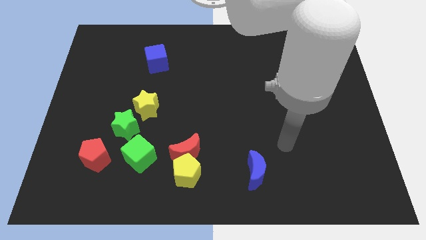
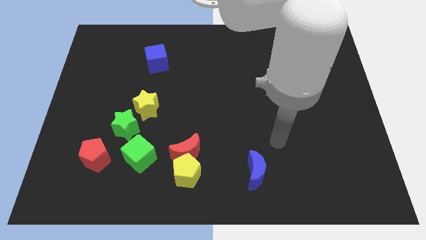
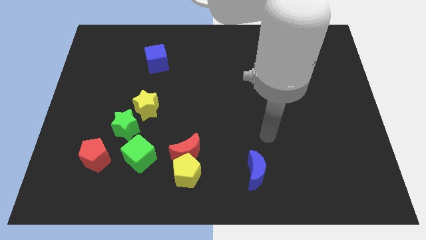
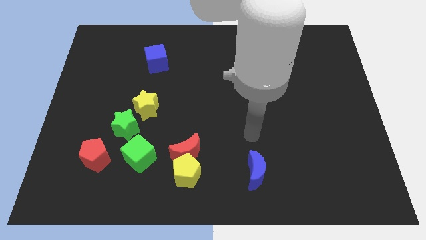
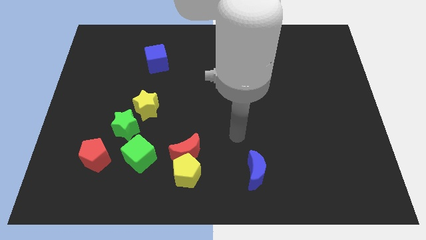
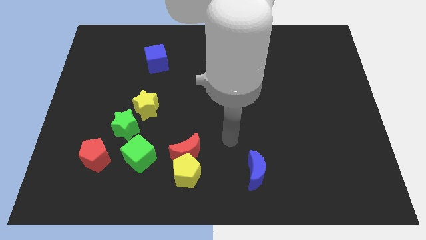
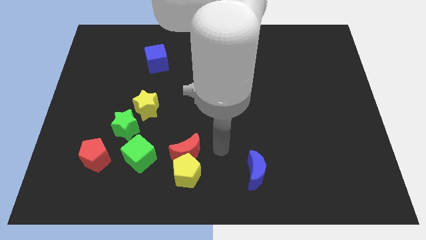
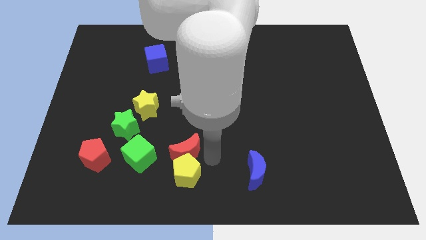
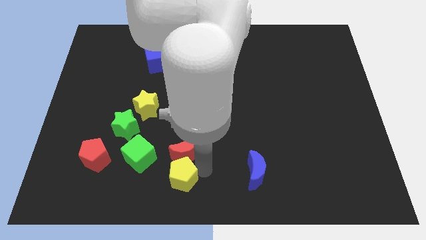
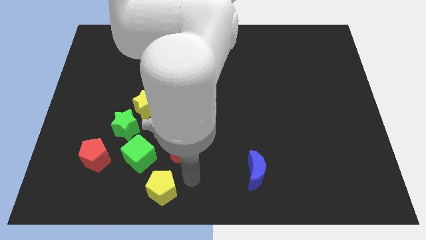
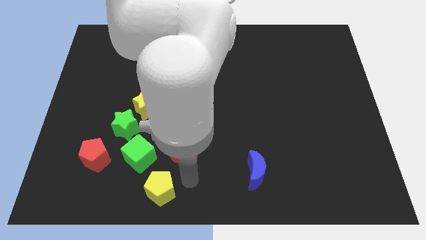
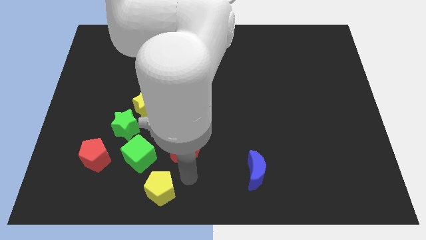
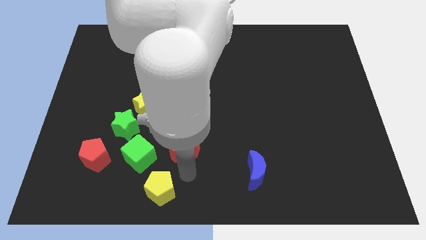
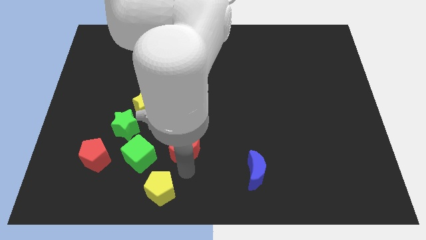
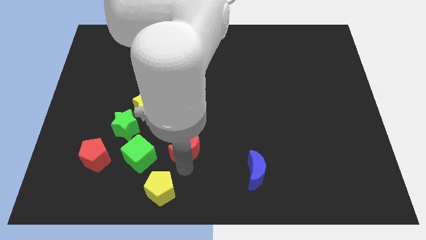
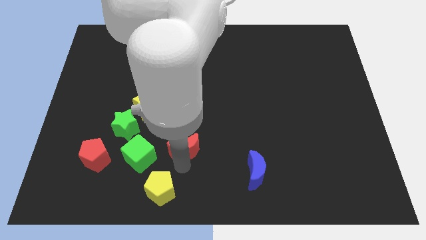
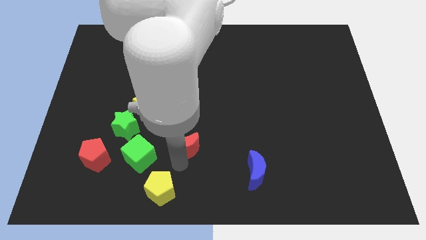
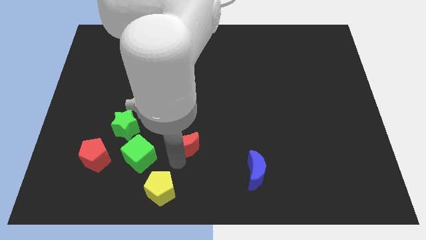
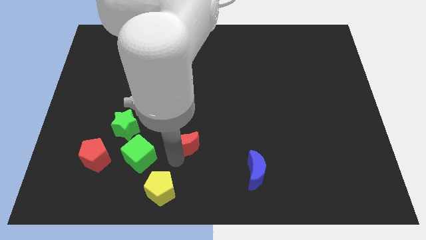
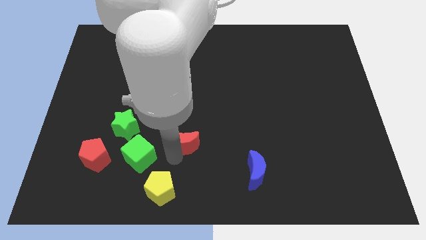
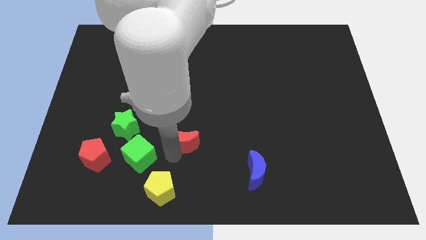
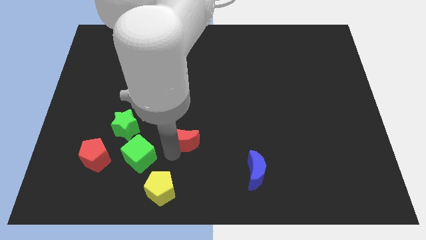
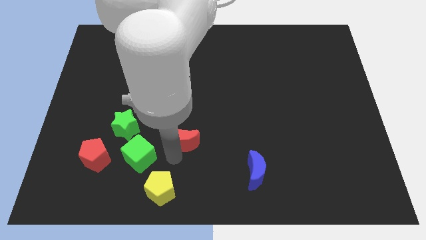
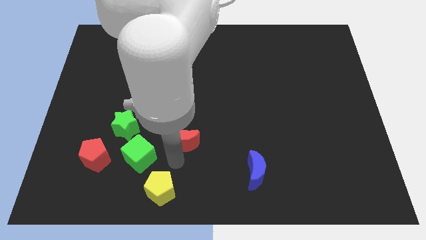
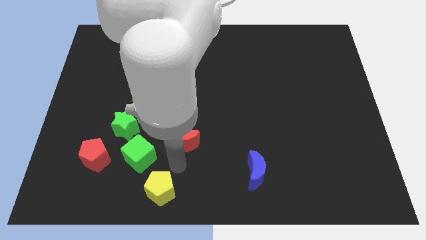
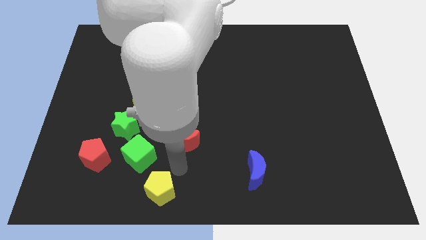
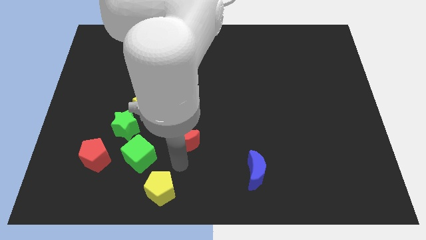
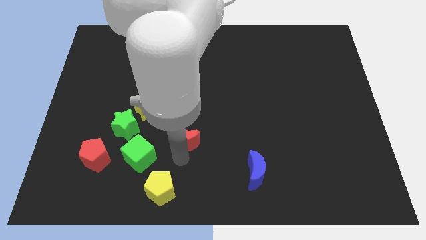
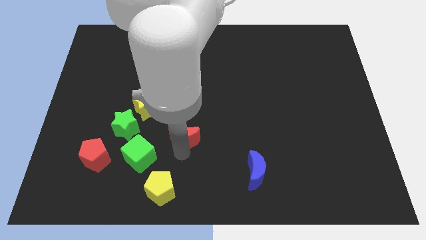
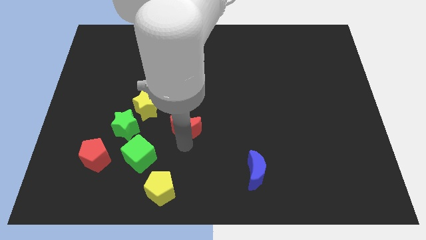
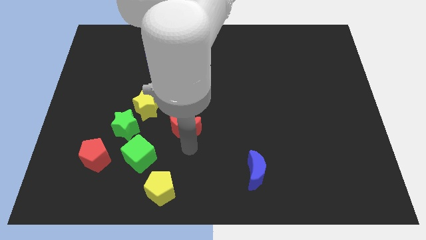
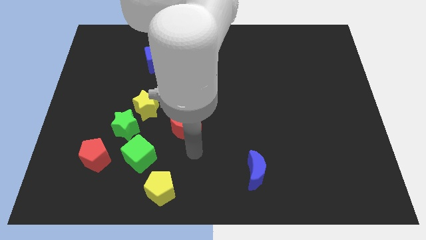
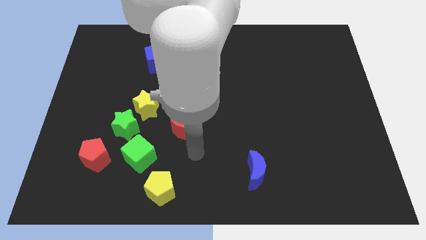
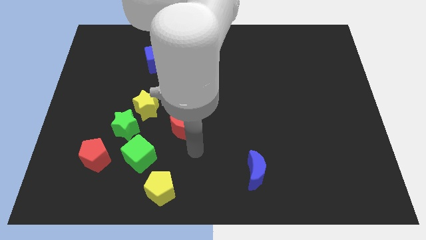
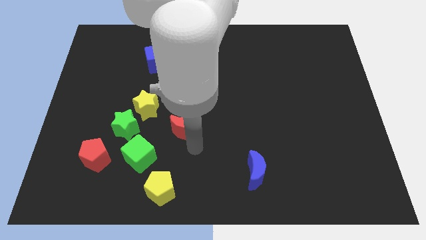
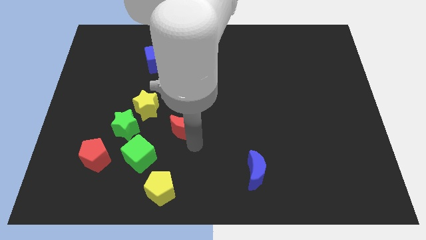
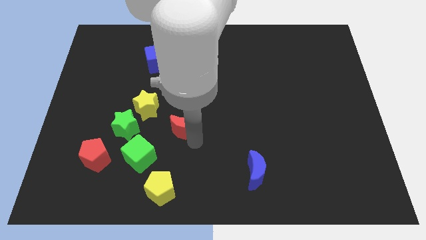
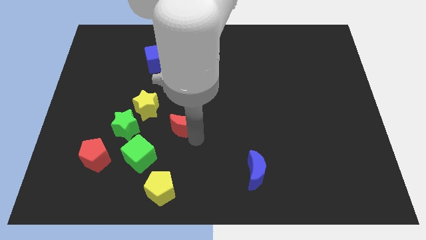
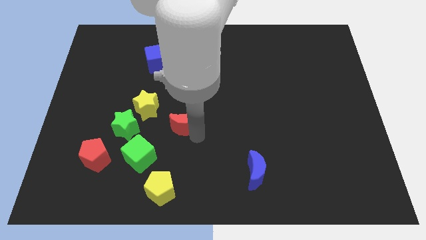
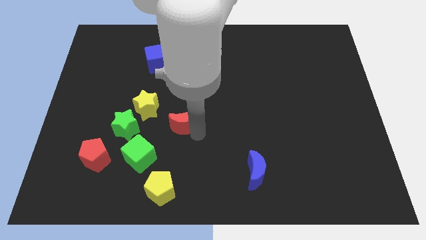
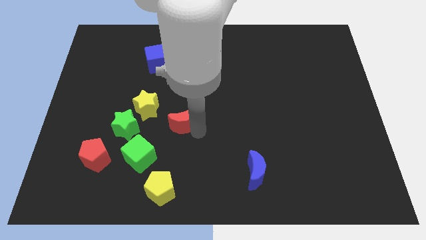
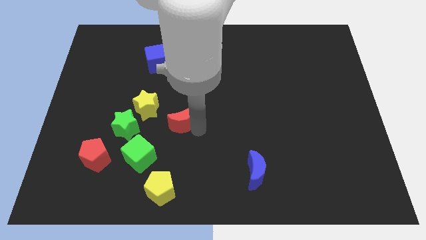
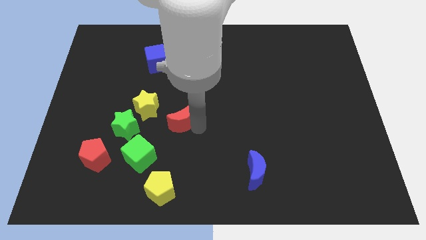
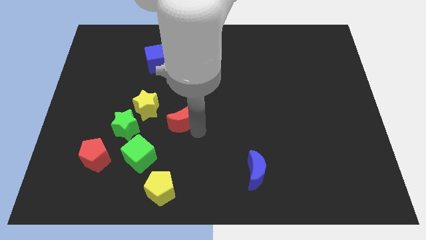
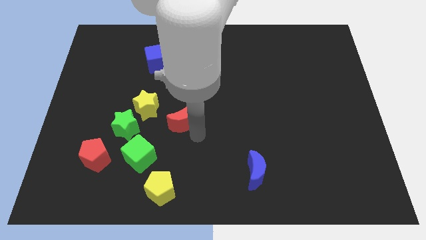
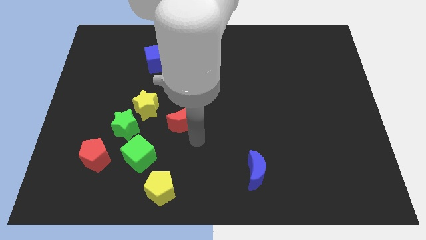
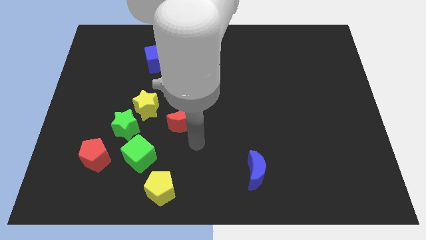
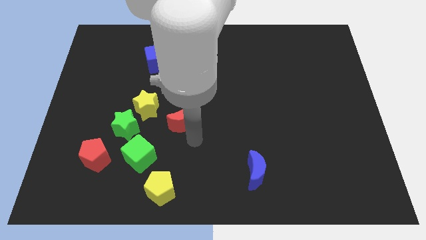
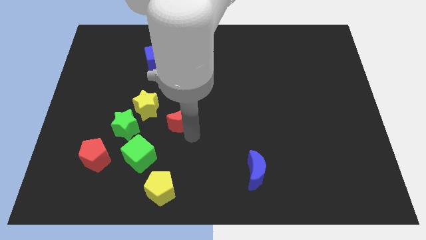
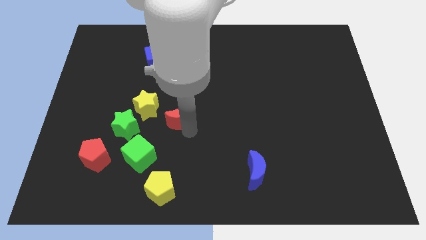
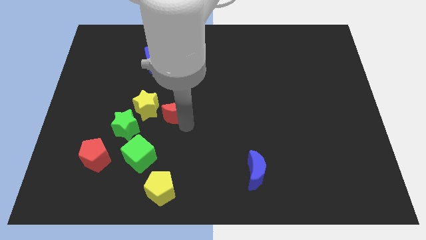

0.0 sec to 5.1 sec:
slightly slide the red moon diagonally up and to the left

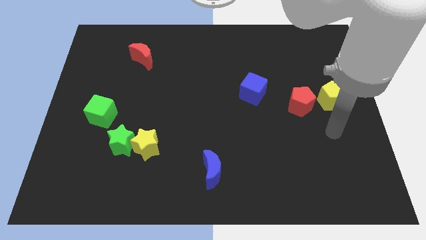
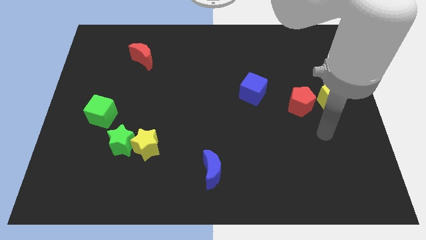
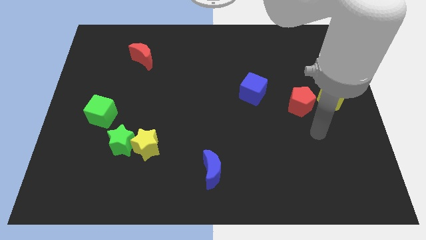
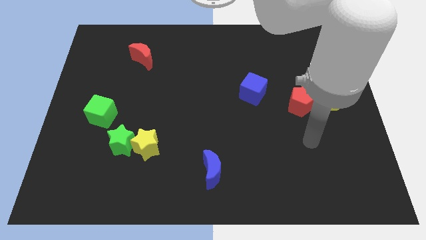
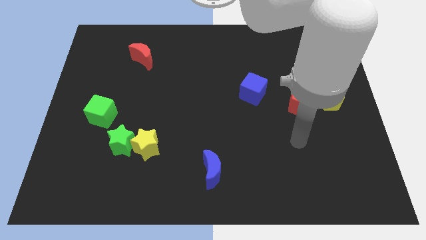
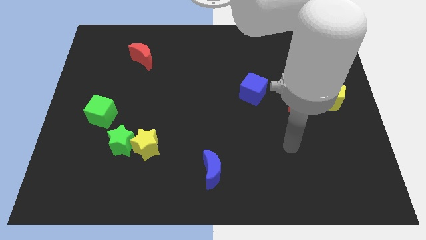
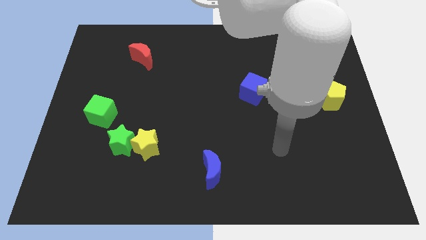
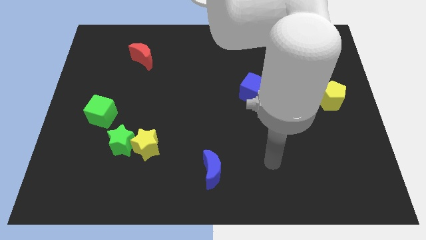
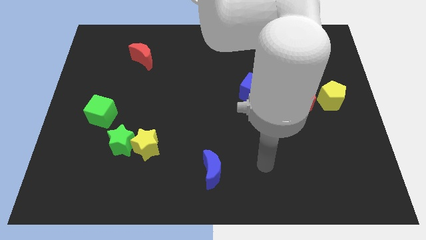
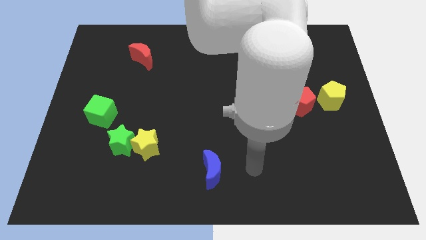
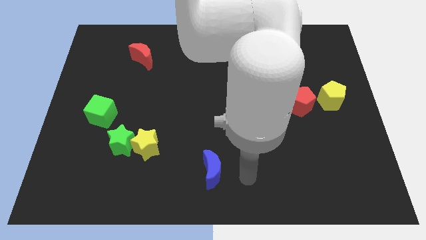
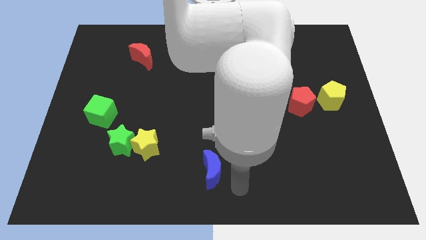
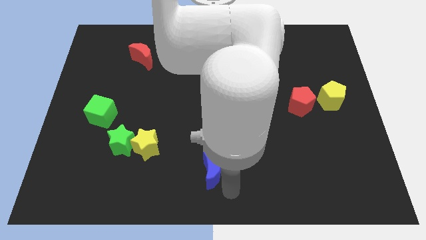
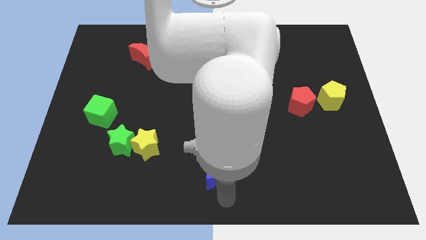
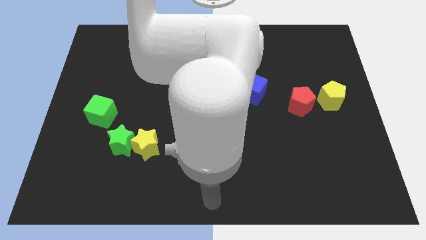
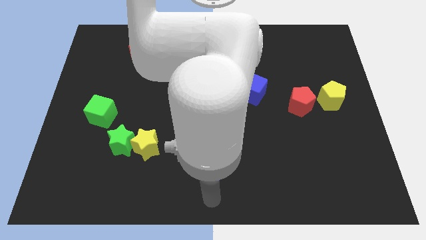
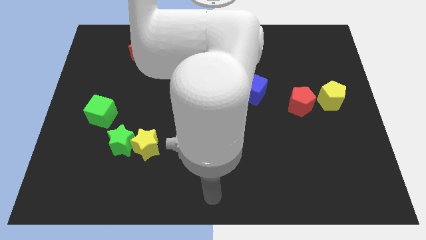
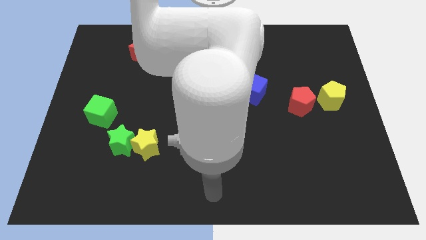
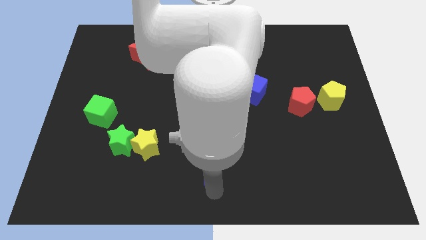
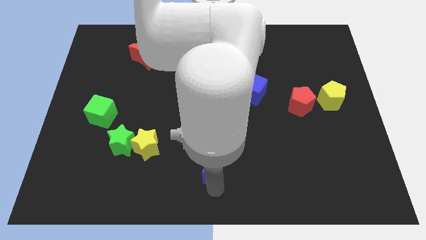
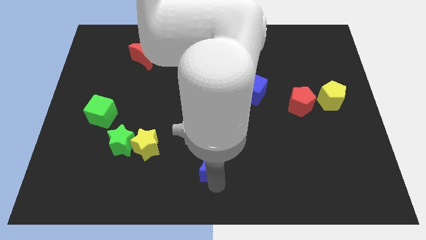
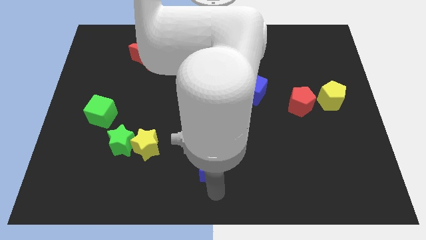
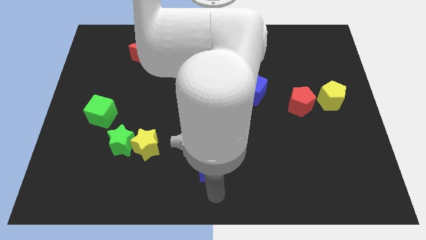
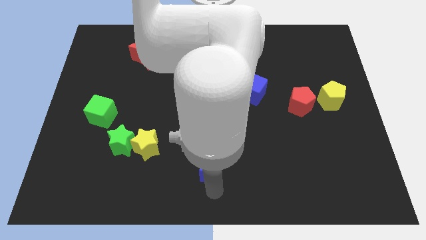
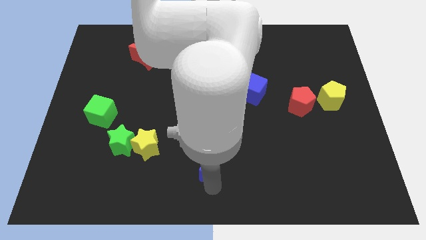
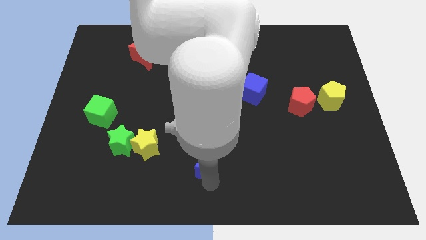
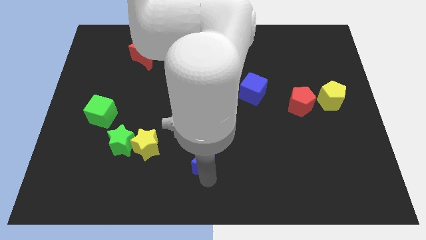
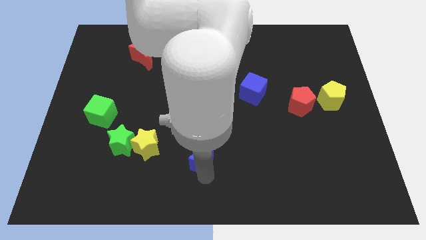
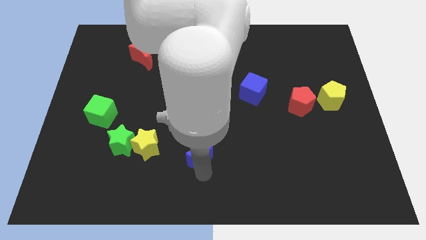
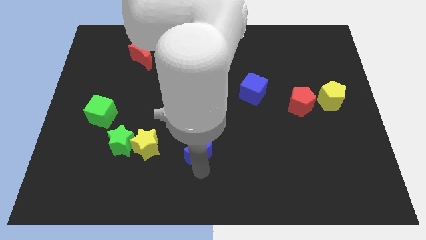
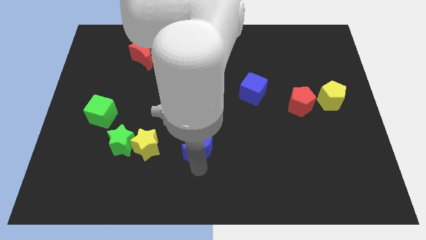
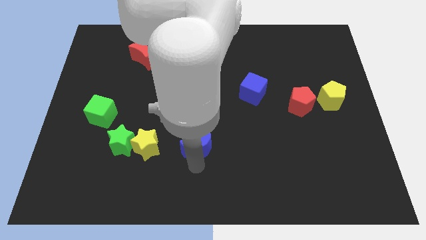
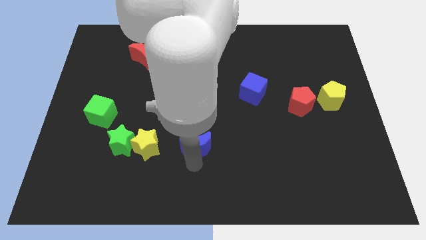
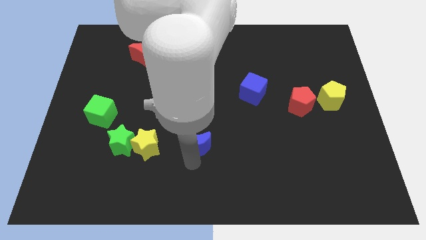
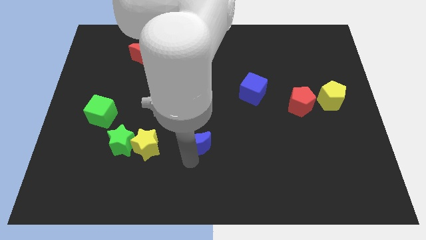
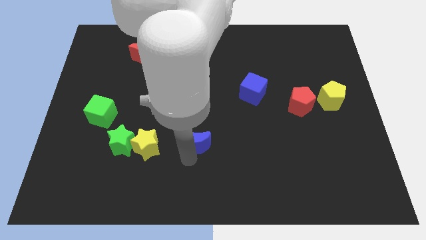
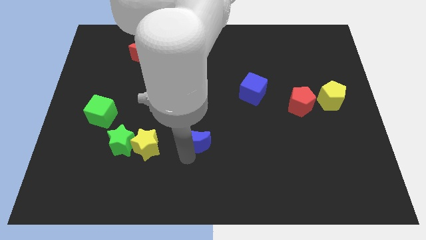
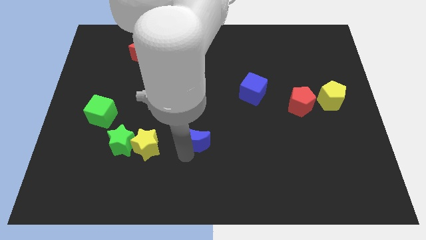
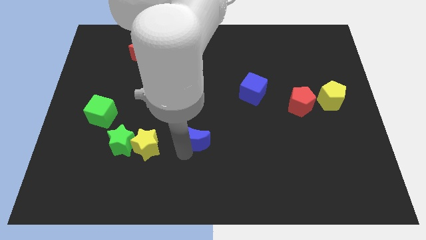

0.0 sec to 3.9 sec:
move the blue moon upwards a bit
